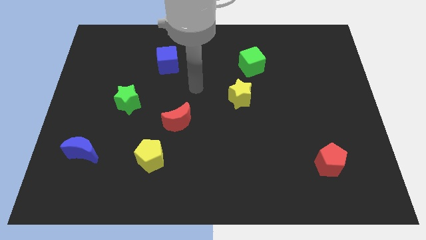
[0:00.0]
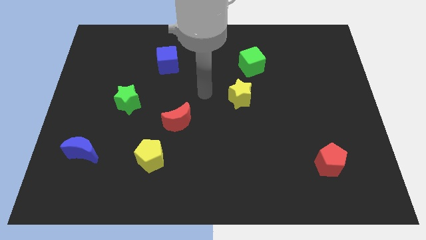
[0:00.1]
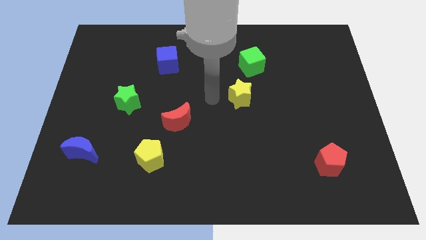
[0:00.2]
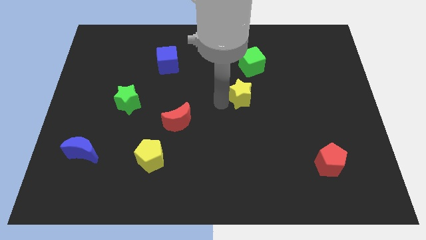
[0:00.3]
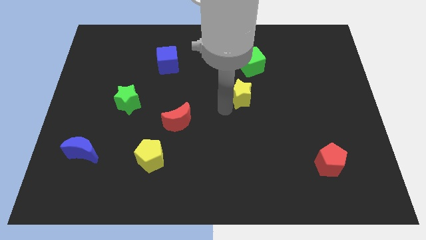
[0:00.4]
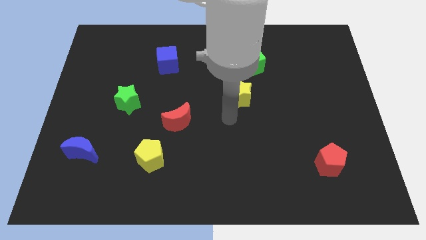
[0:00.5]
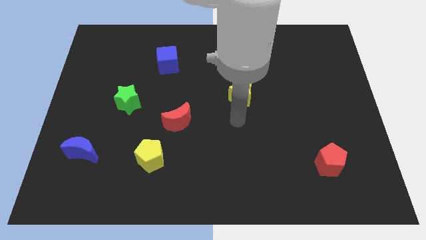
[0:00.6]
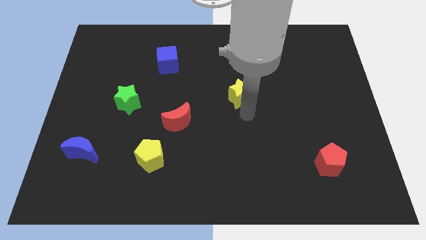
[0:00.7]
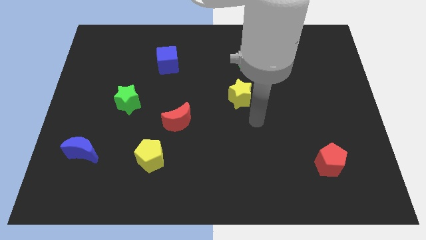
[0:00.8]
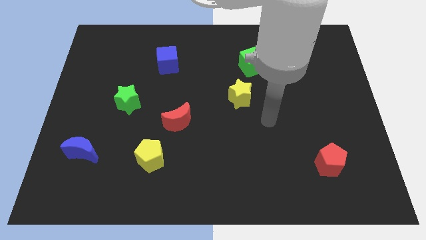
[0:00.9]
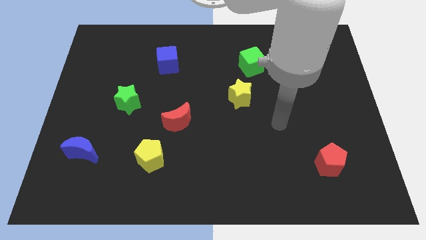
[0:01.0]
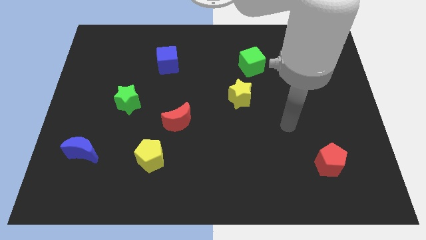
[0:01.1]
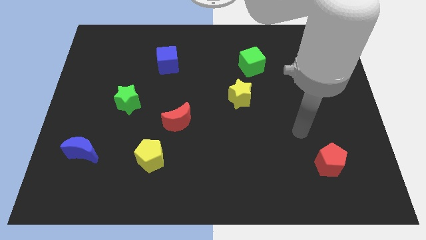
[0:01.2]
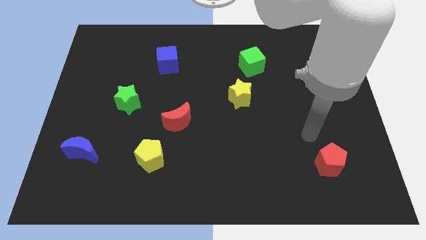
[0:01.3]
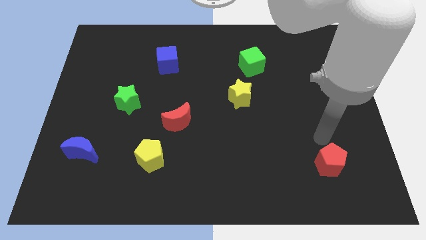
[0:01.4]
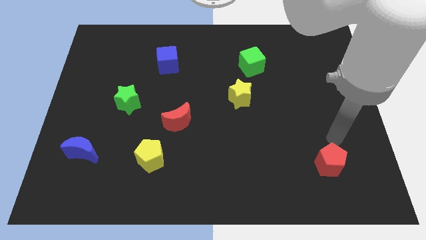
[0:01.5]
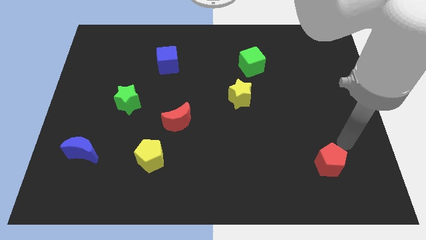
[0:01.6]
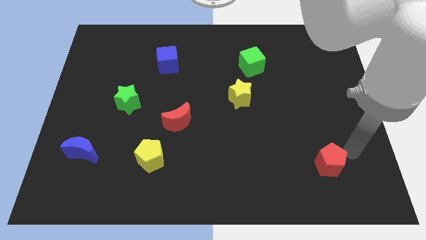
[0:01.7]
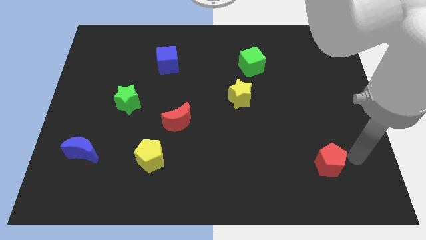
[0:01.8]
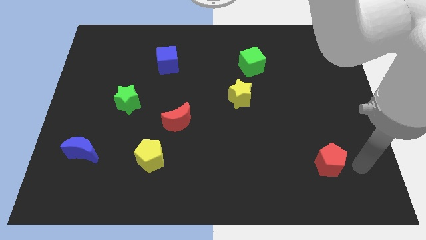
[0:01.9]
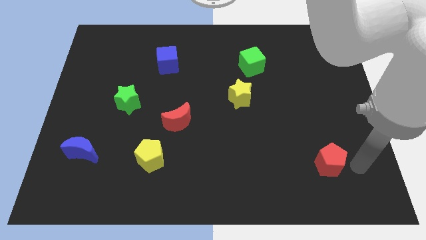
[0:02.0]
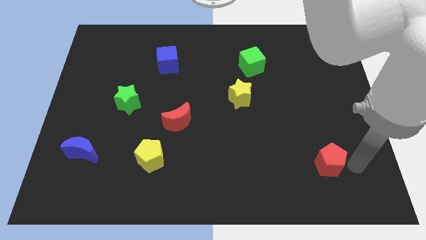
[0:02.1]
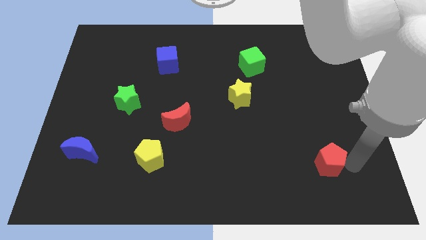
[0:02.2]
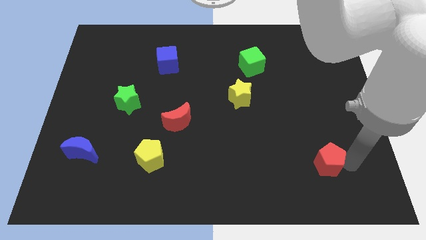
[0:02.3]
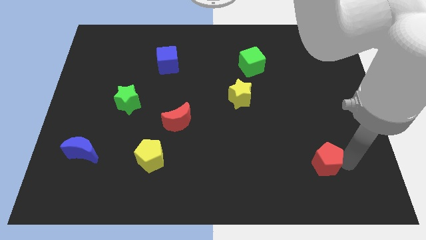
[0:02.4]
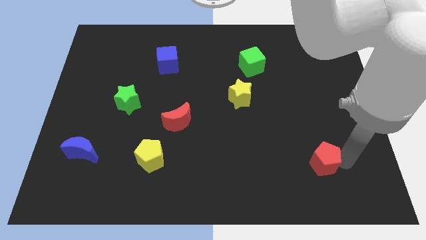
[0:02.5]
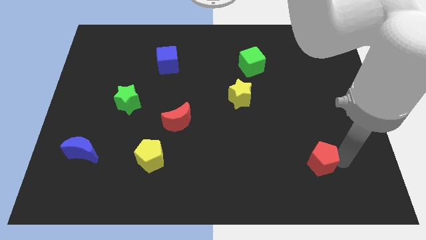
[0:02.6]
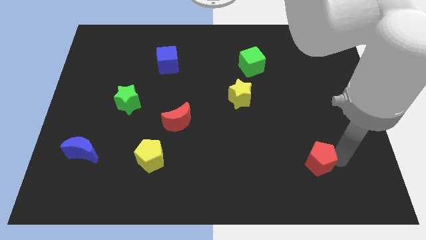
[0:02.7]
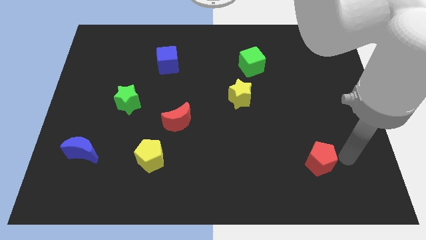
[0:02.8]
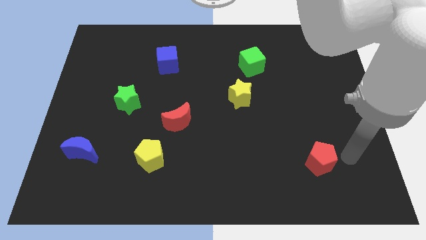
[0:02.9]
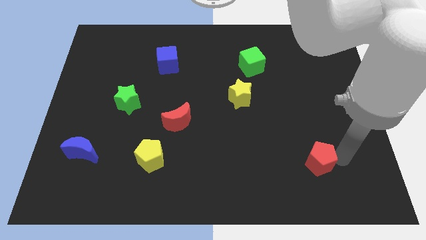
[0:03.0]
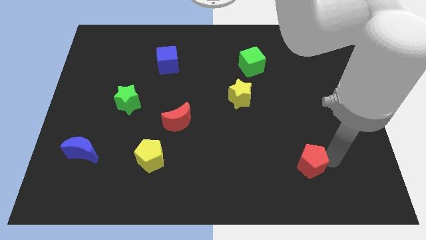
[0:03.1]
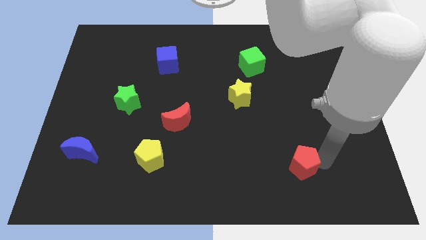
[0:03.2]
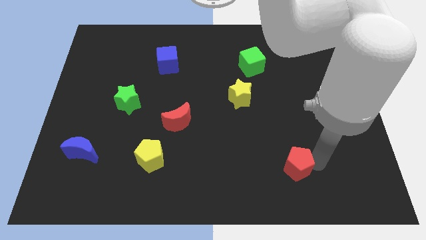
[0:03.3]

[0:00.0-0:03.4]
slightly move the red pentagon to the left

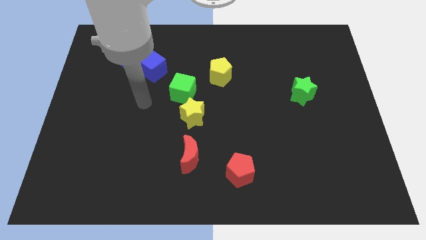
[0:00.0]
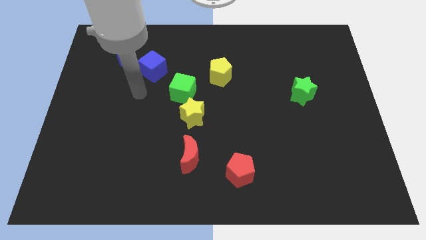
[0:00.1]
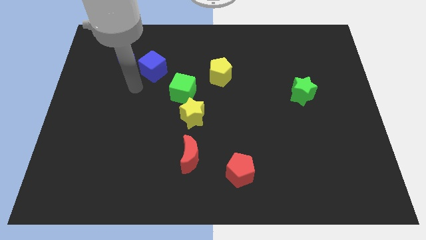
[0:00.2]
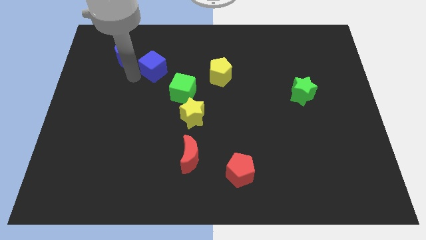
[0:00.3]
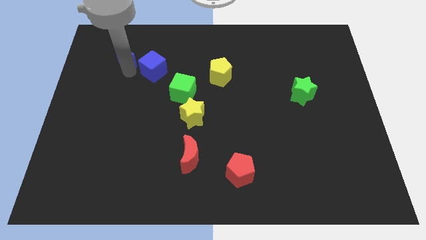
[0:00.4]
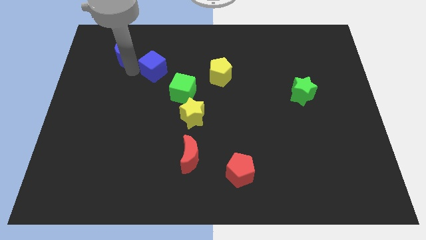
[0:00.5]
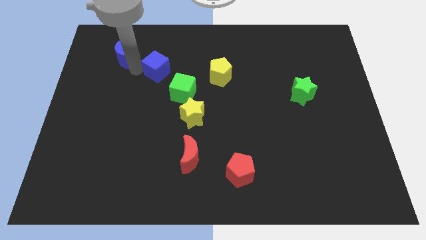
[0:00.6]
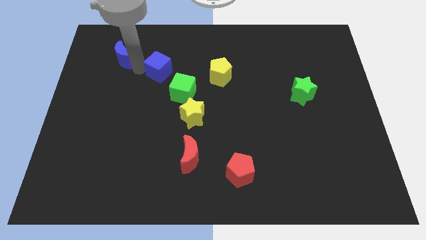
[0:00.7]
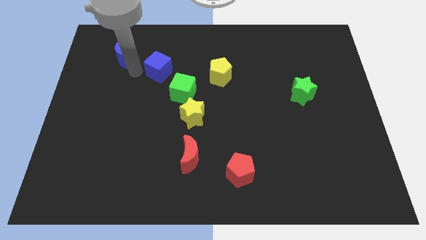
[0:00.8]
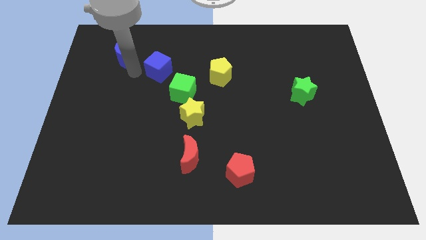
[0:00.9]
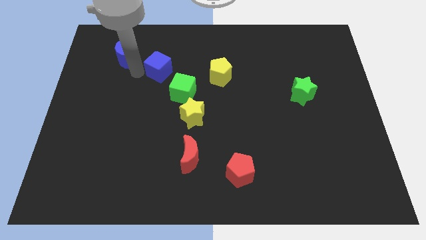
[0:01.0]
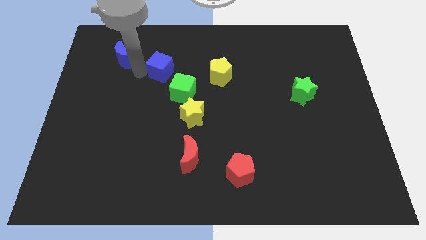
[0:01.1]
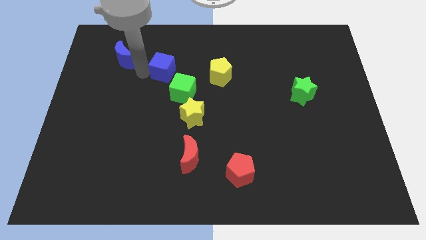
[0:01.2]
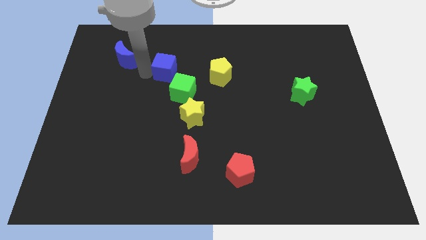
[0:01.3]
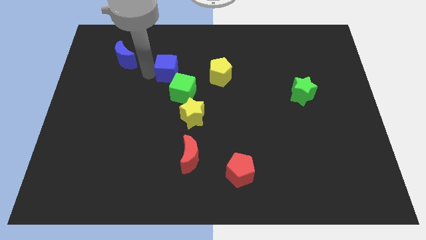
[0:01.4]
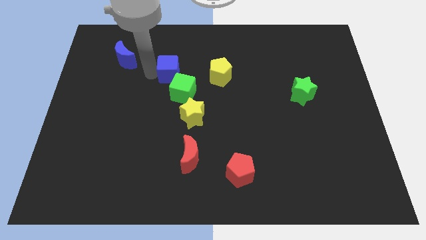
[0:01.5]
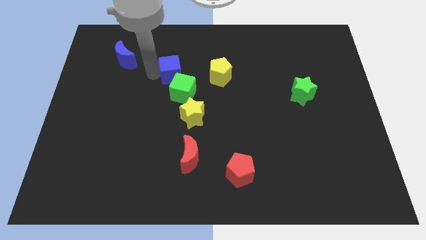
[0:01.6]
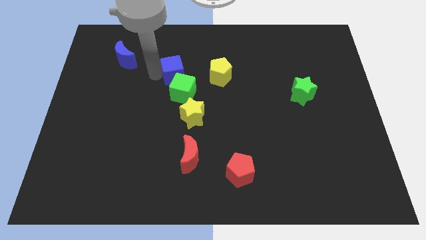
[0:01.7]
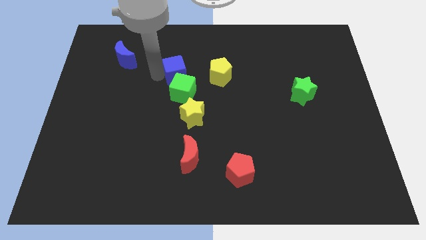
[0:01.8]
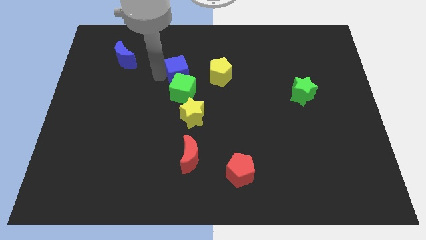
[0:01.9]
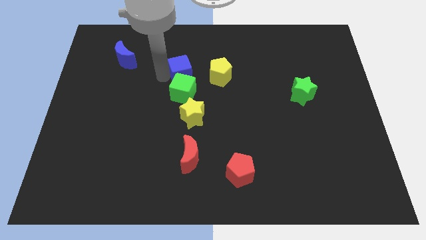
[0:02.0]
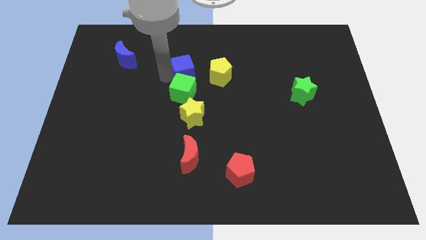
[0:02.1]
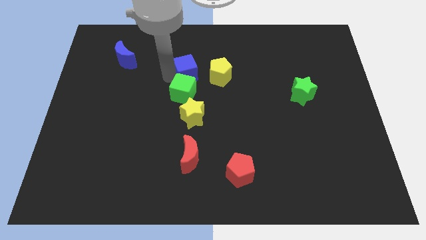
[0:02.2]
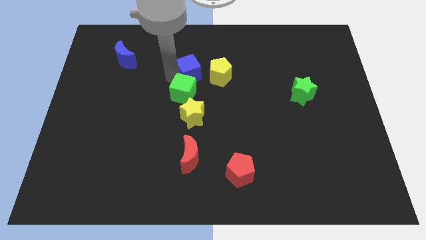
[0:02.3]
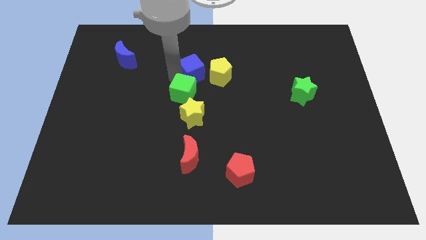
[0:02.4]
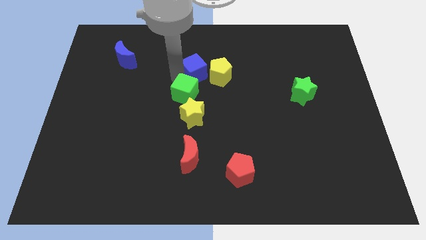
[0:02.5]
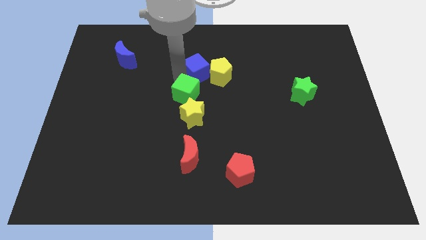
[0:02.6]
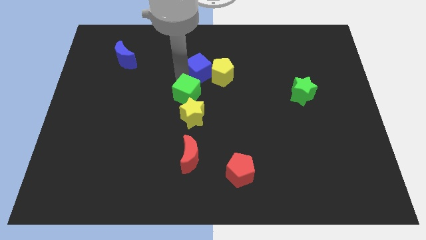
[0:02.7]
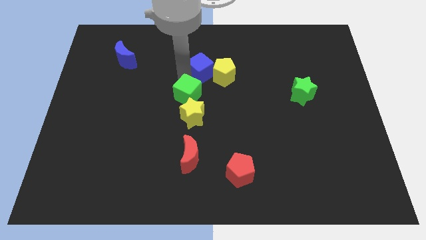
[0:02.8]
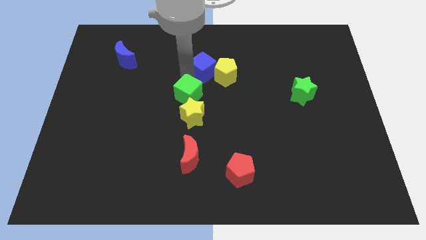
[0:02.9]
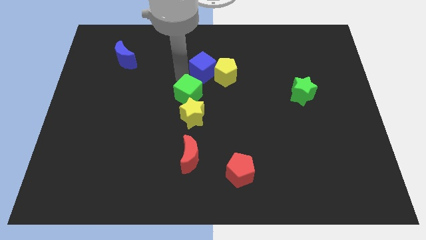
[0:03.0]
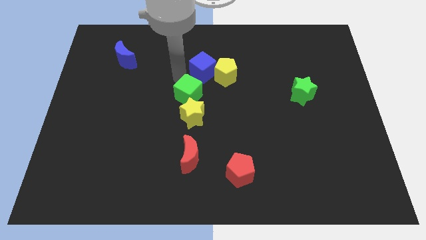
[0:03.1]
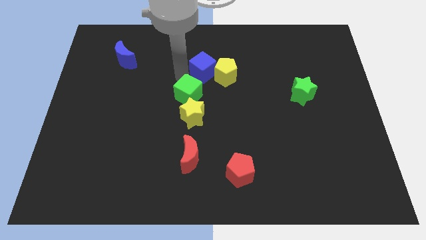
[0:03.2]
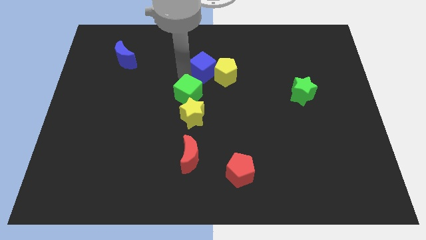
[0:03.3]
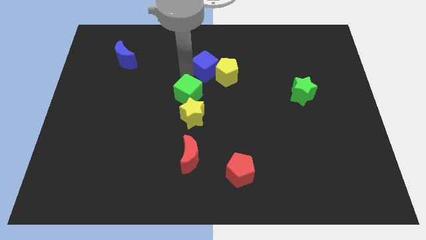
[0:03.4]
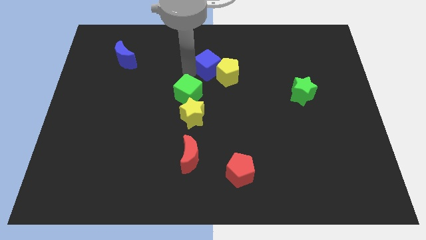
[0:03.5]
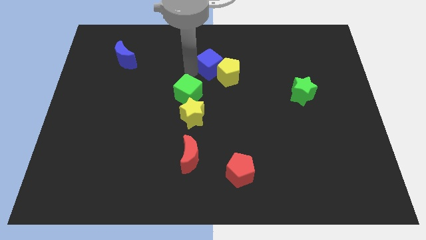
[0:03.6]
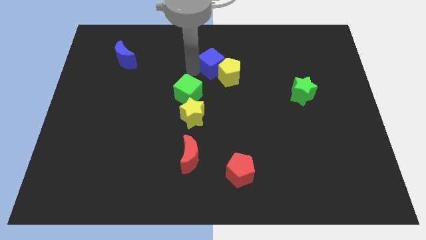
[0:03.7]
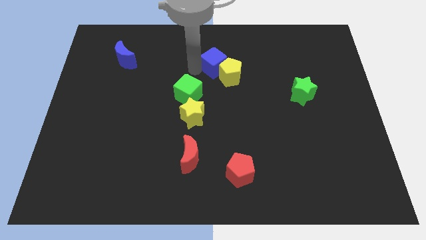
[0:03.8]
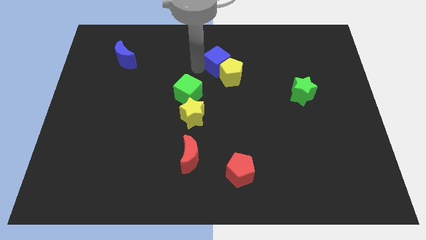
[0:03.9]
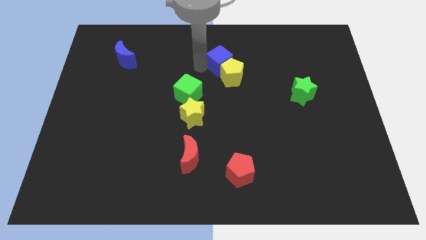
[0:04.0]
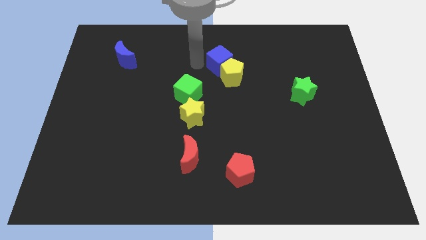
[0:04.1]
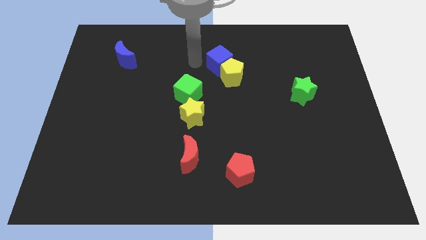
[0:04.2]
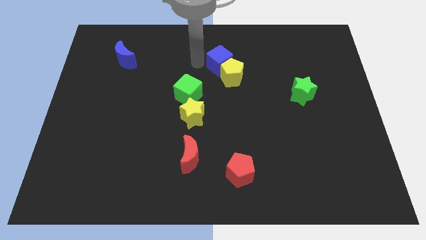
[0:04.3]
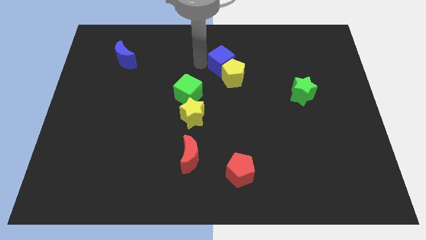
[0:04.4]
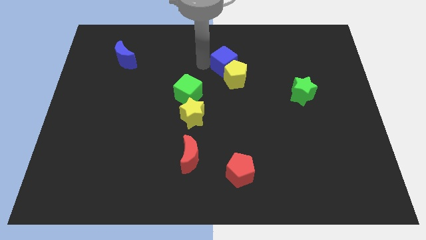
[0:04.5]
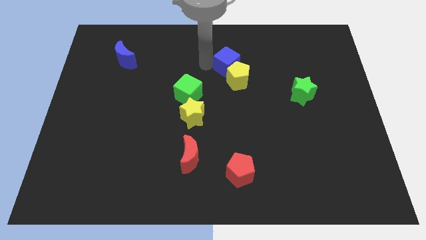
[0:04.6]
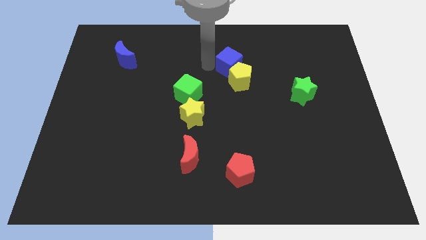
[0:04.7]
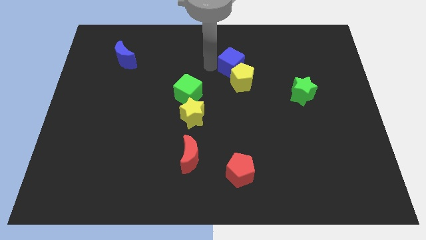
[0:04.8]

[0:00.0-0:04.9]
slide the blue cube to the right
